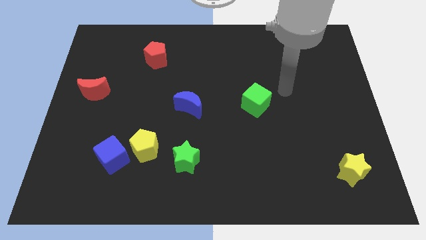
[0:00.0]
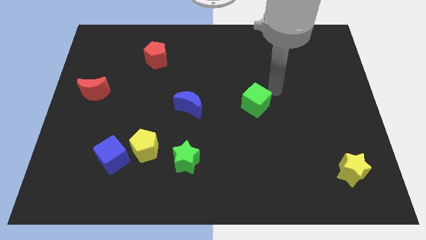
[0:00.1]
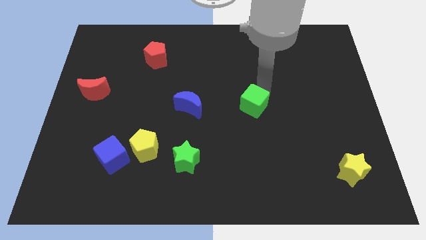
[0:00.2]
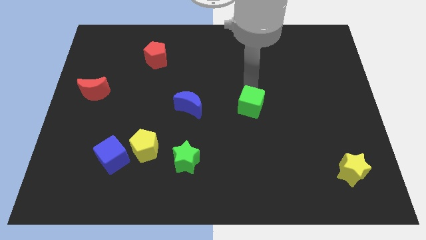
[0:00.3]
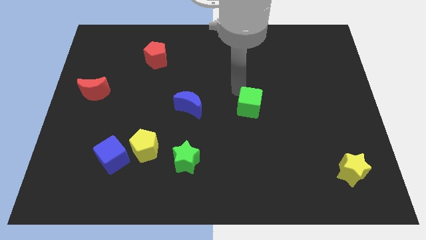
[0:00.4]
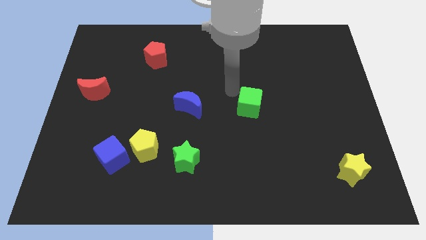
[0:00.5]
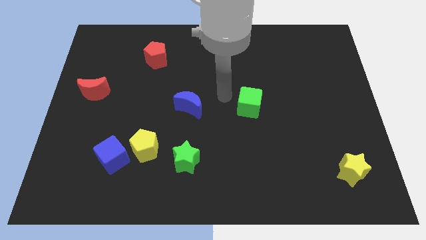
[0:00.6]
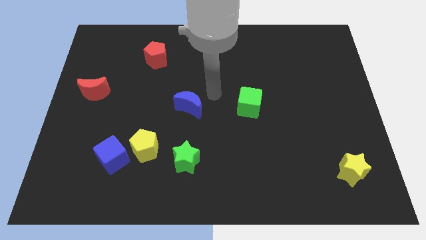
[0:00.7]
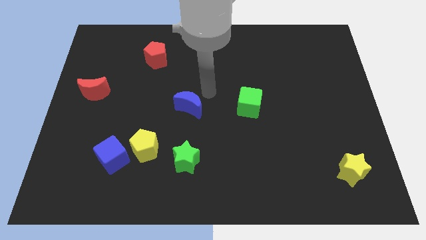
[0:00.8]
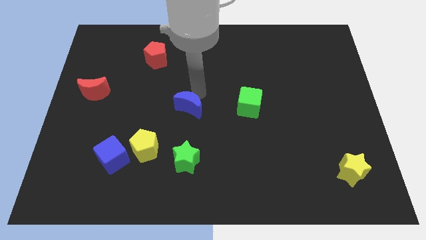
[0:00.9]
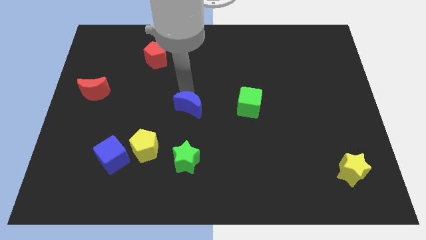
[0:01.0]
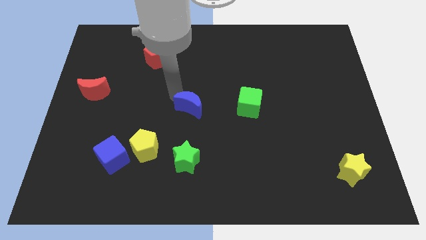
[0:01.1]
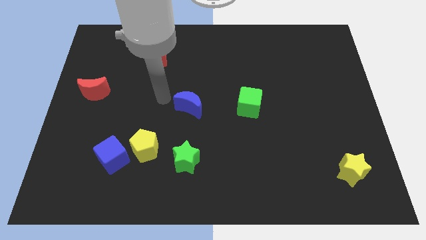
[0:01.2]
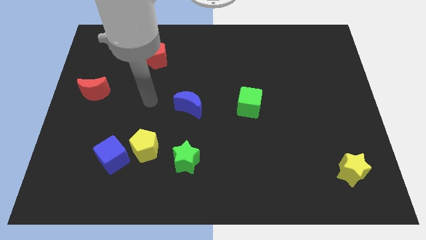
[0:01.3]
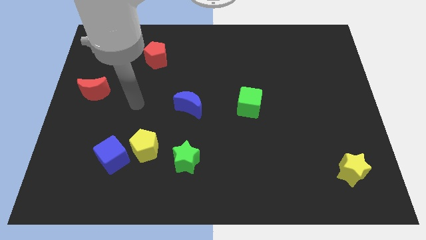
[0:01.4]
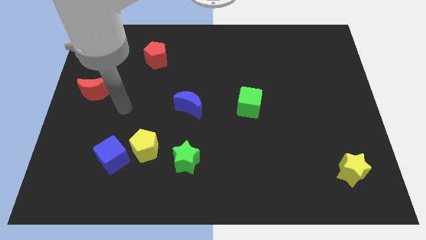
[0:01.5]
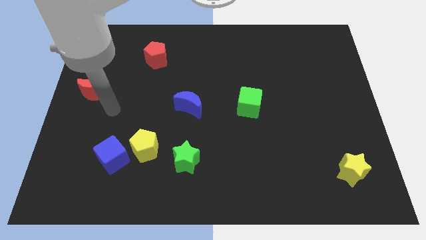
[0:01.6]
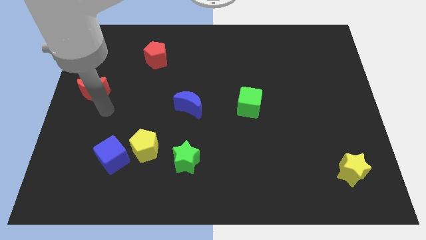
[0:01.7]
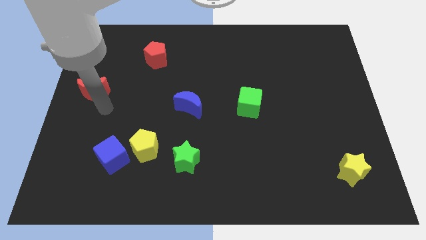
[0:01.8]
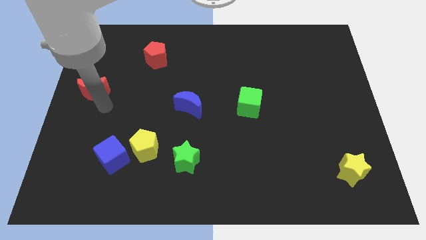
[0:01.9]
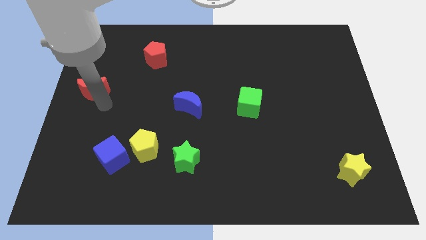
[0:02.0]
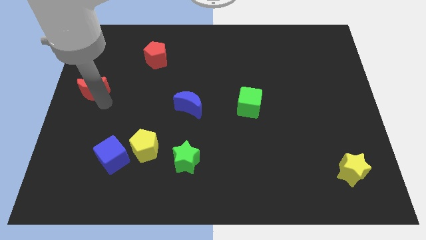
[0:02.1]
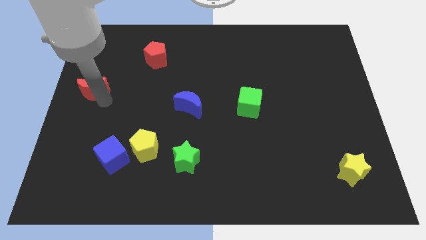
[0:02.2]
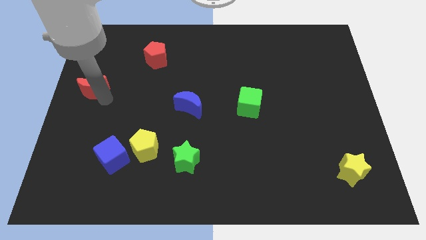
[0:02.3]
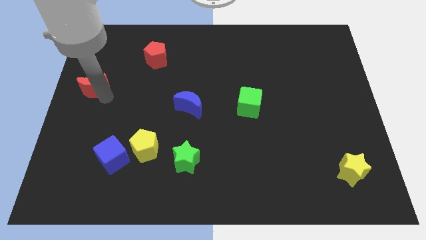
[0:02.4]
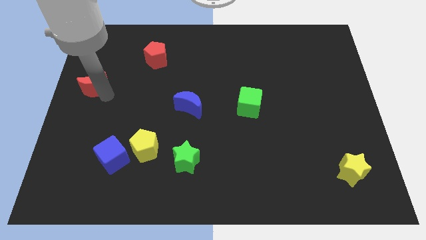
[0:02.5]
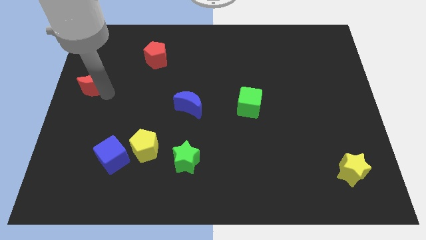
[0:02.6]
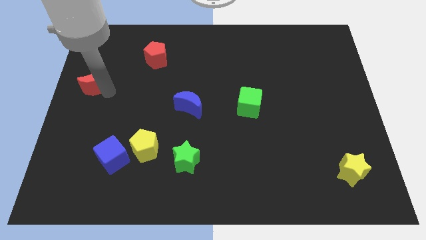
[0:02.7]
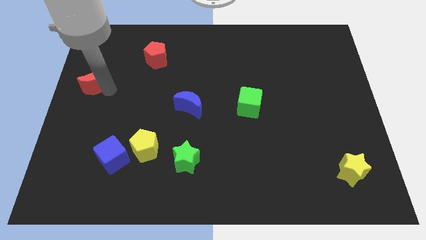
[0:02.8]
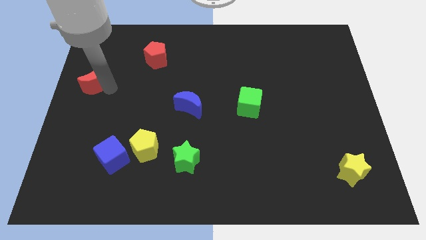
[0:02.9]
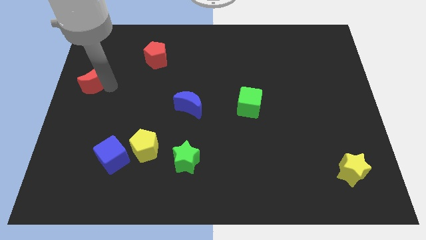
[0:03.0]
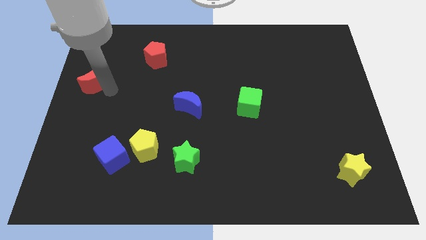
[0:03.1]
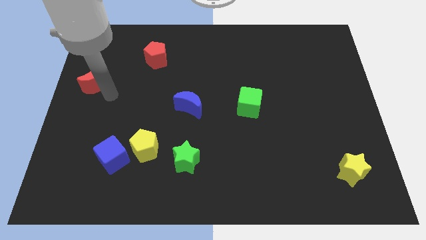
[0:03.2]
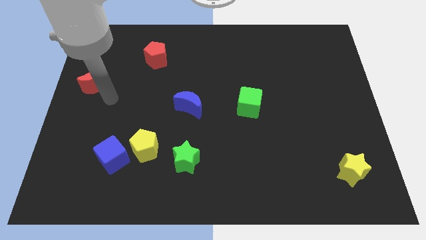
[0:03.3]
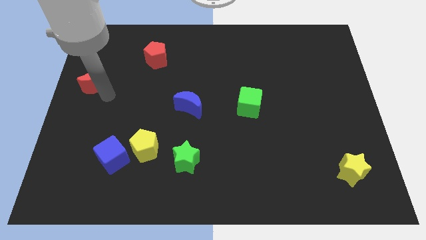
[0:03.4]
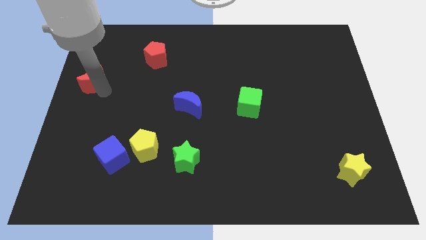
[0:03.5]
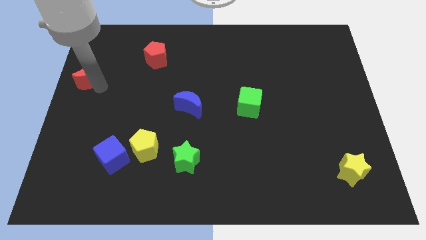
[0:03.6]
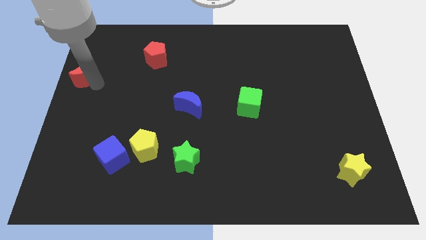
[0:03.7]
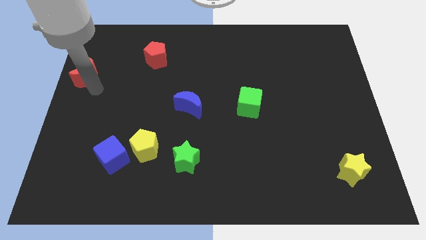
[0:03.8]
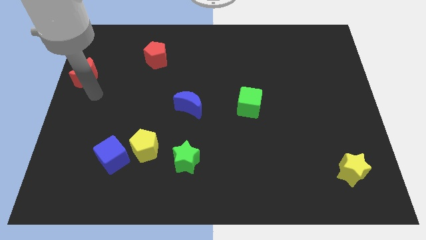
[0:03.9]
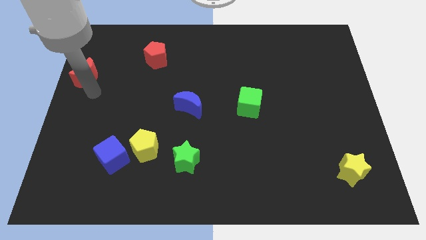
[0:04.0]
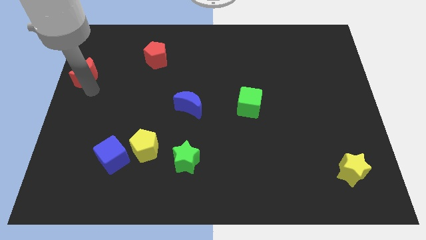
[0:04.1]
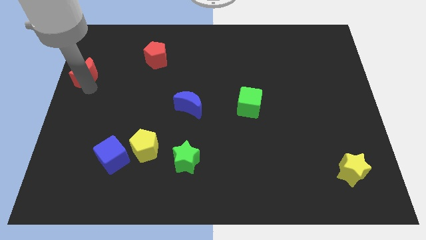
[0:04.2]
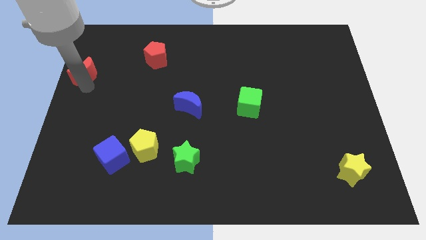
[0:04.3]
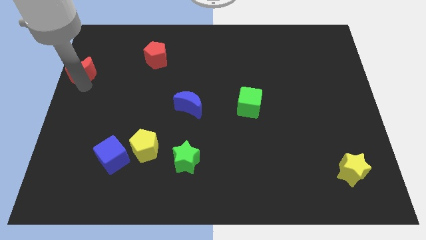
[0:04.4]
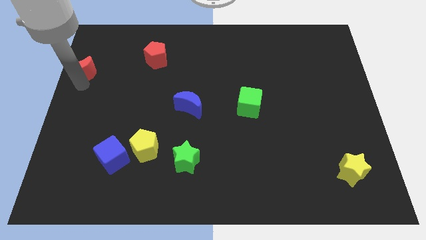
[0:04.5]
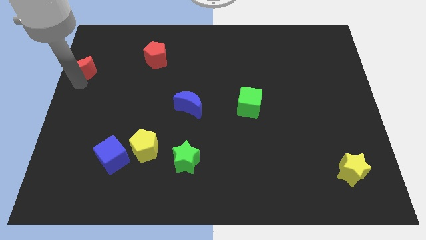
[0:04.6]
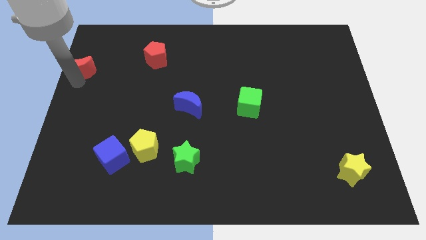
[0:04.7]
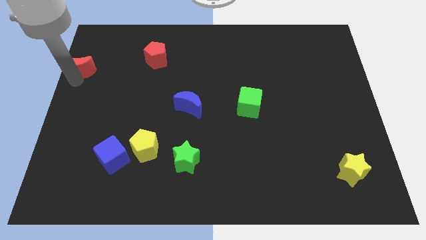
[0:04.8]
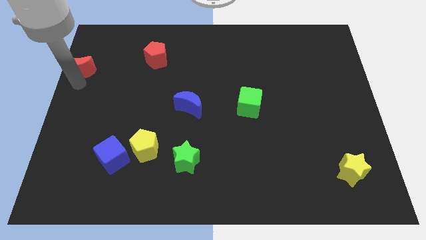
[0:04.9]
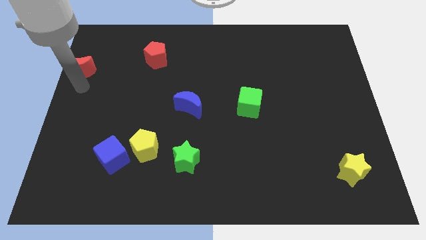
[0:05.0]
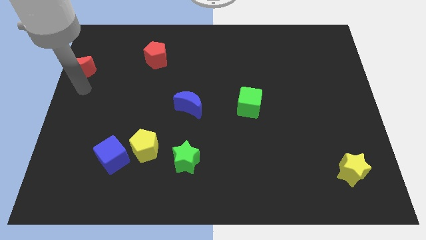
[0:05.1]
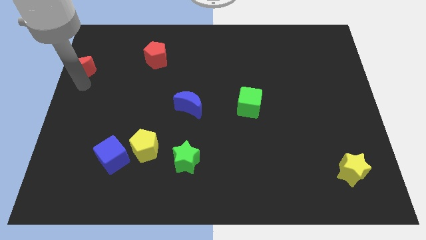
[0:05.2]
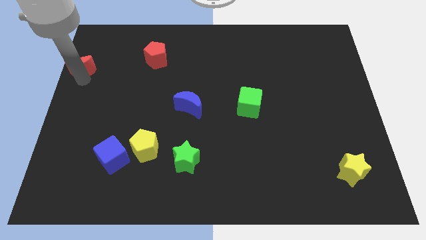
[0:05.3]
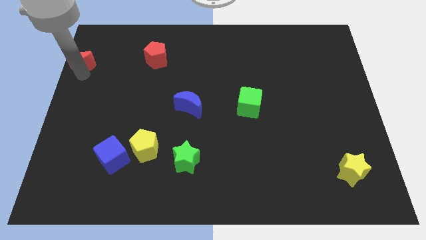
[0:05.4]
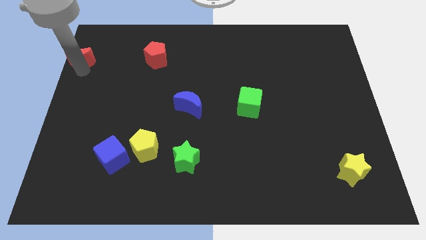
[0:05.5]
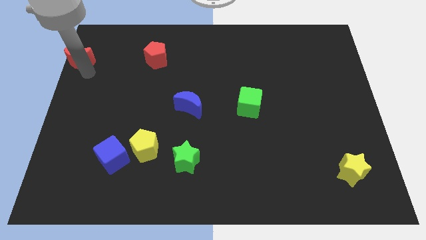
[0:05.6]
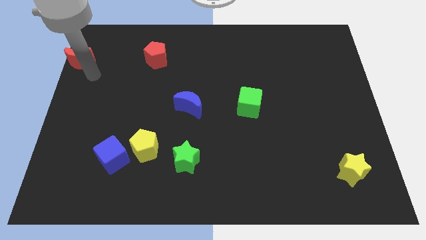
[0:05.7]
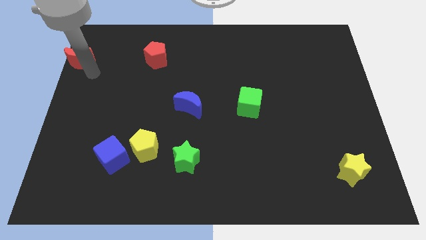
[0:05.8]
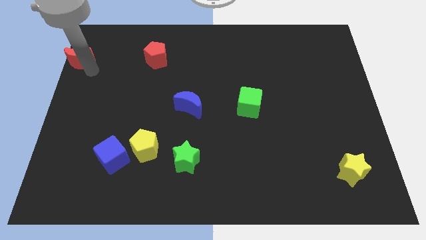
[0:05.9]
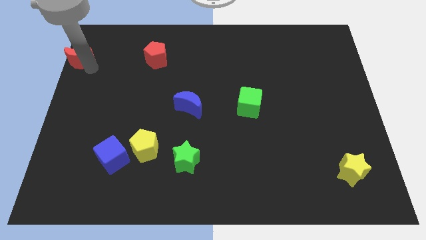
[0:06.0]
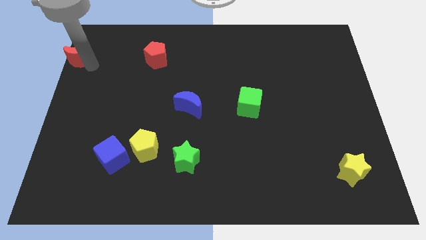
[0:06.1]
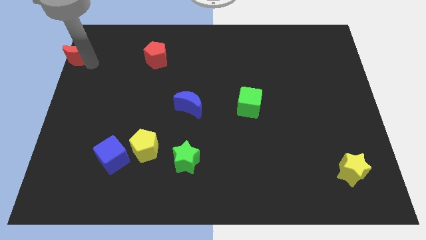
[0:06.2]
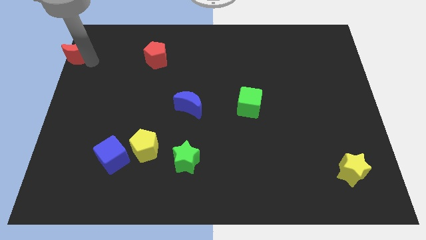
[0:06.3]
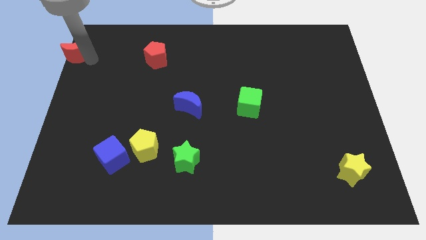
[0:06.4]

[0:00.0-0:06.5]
push the red moon to the upper left corner
